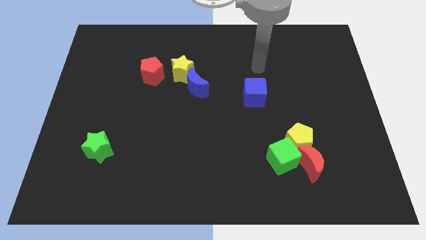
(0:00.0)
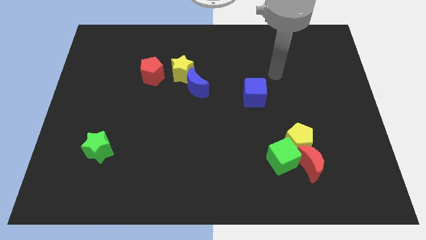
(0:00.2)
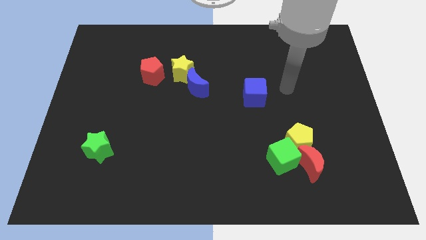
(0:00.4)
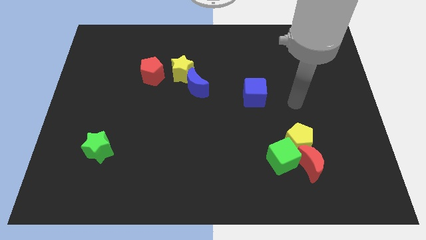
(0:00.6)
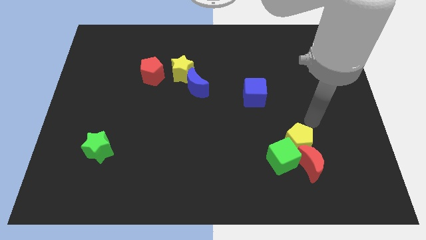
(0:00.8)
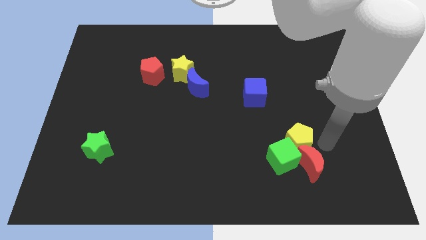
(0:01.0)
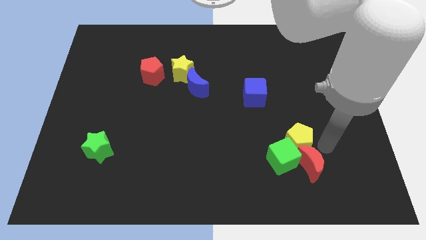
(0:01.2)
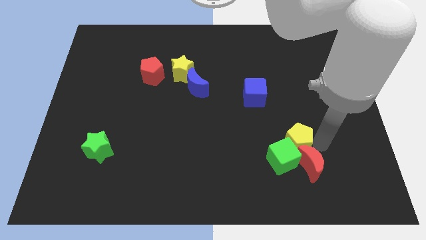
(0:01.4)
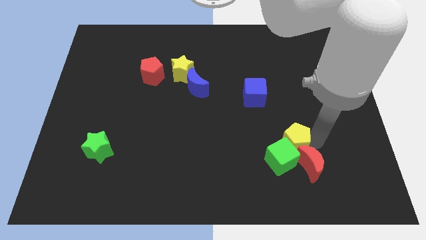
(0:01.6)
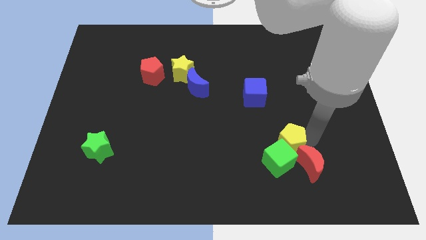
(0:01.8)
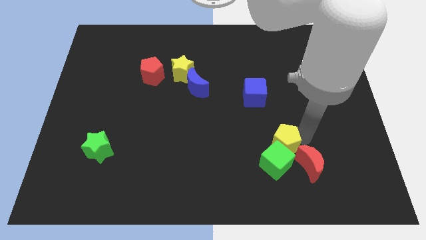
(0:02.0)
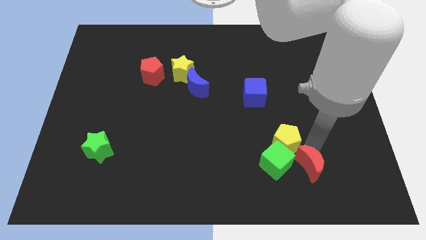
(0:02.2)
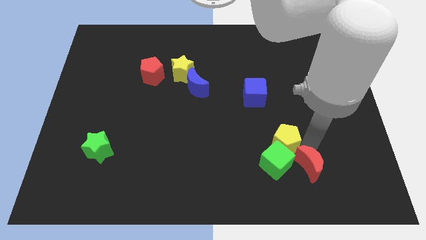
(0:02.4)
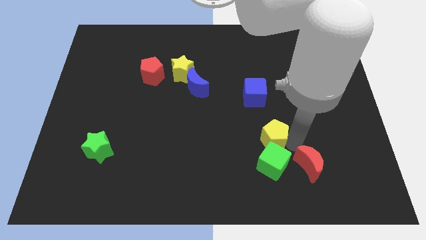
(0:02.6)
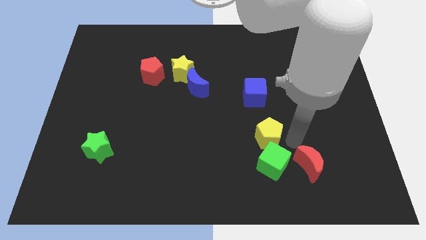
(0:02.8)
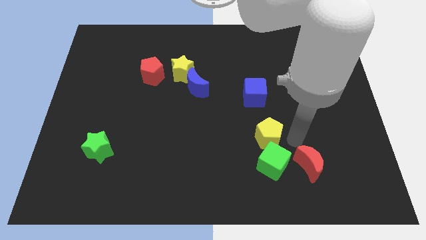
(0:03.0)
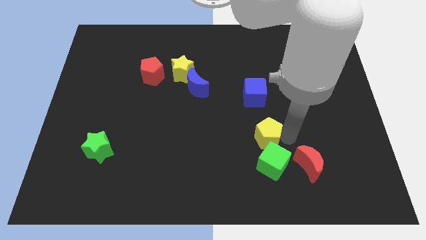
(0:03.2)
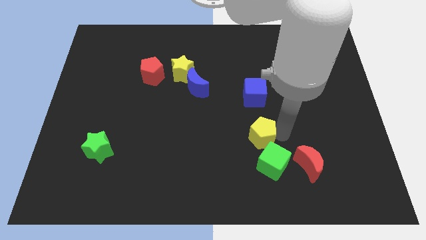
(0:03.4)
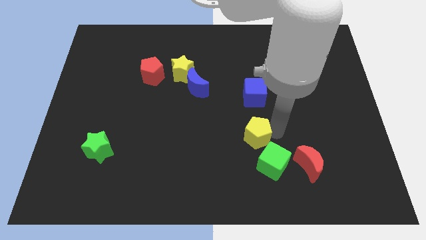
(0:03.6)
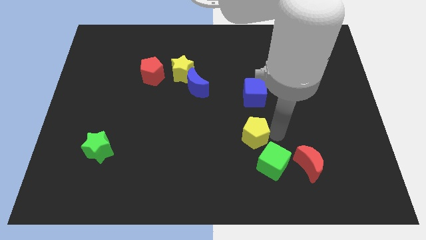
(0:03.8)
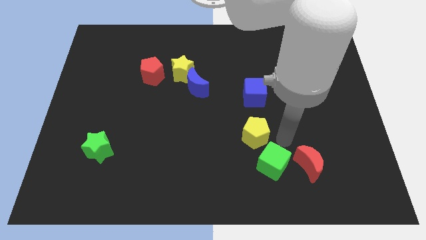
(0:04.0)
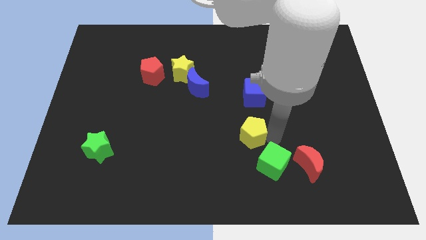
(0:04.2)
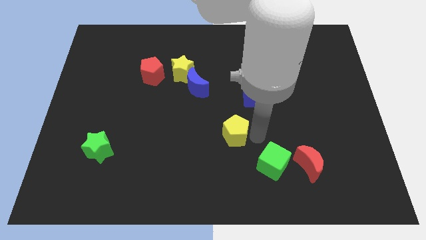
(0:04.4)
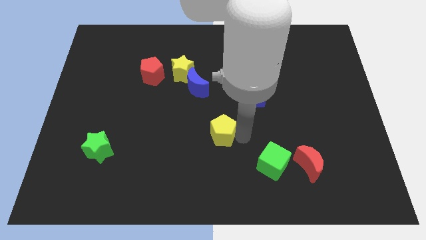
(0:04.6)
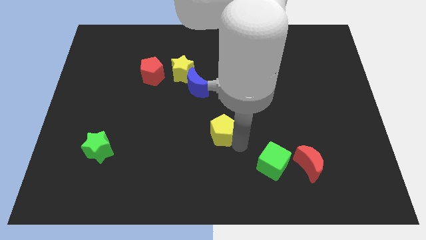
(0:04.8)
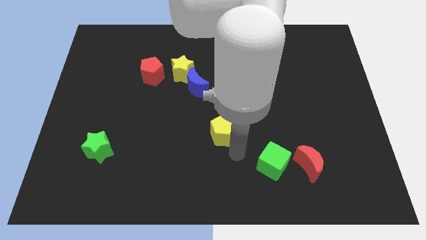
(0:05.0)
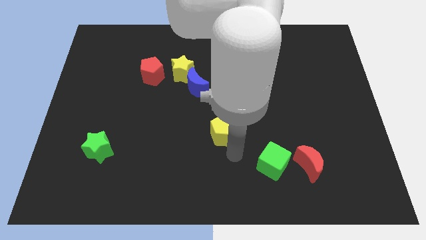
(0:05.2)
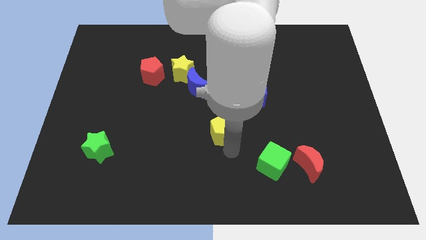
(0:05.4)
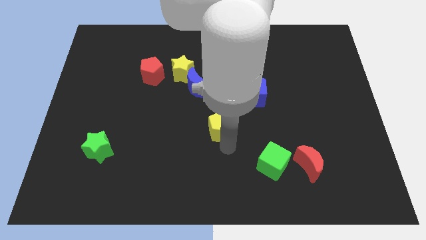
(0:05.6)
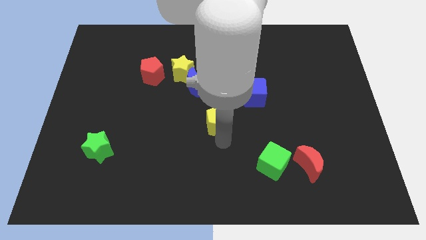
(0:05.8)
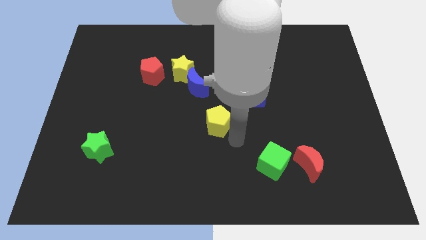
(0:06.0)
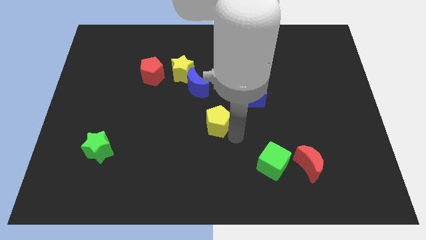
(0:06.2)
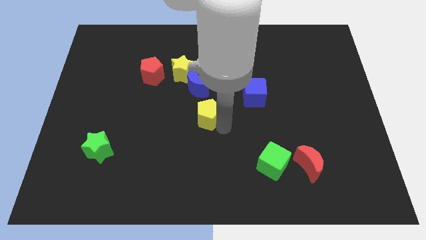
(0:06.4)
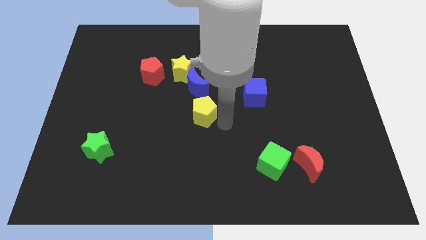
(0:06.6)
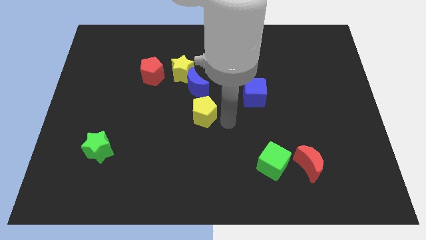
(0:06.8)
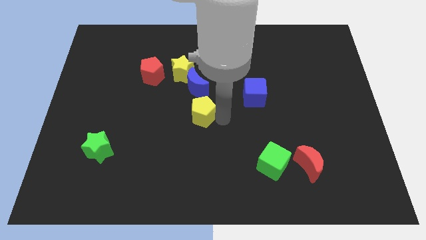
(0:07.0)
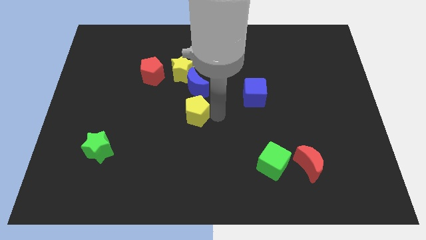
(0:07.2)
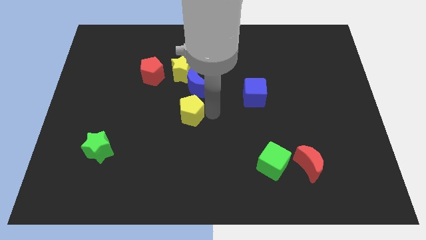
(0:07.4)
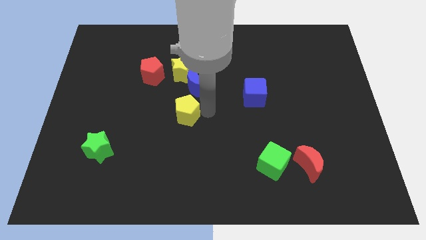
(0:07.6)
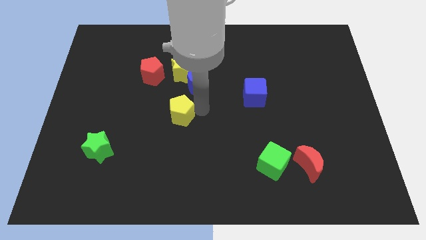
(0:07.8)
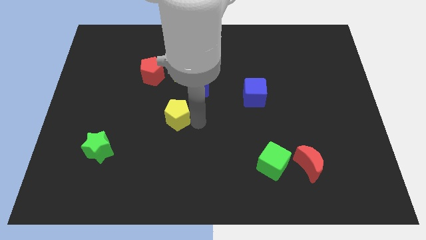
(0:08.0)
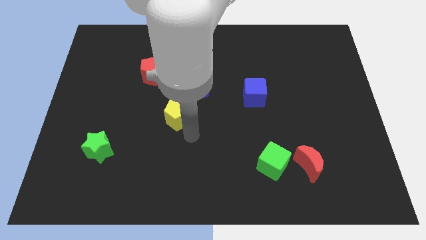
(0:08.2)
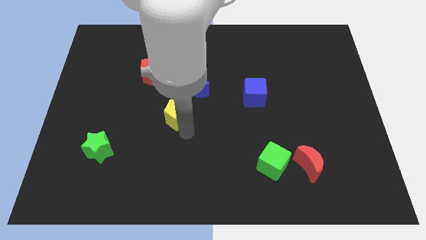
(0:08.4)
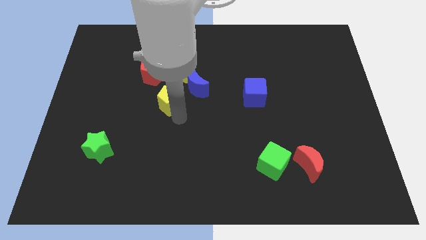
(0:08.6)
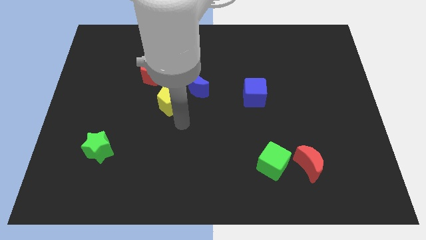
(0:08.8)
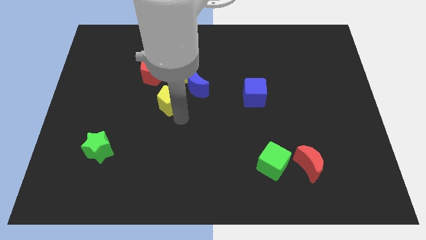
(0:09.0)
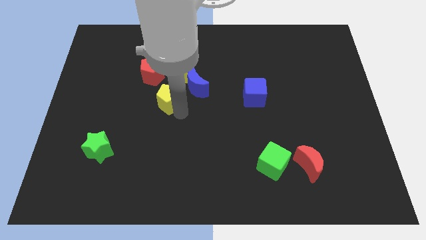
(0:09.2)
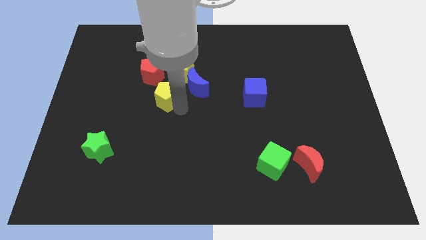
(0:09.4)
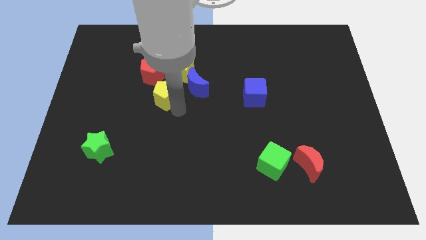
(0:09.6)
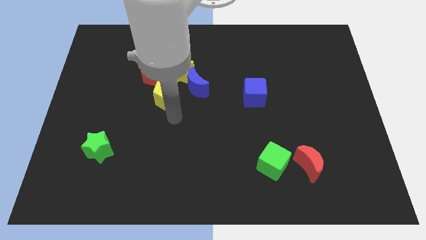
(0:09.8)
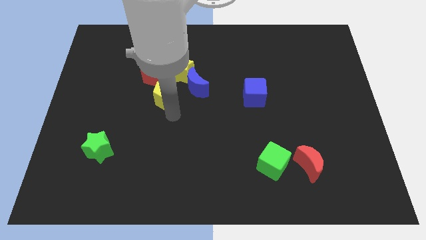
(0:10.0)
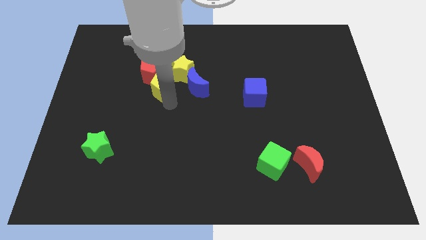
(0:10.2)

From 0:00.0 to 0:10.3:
slide the yellow pentagon close to the red pentagon

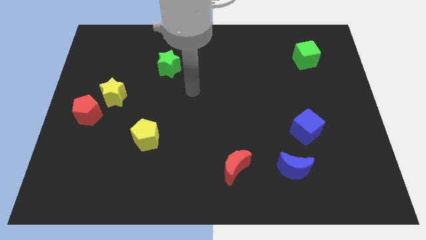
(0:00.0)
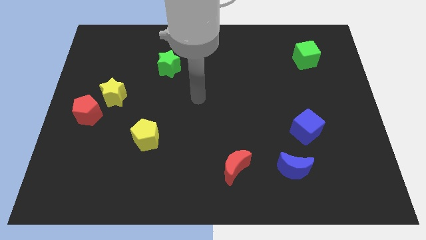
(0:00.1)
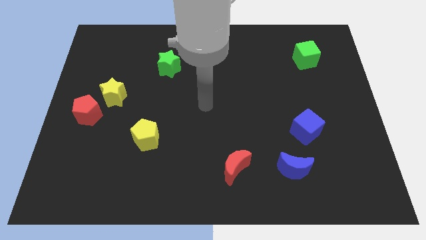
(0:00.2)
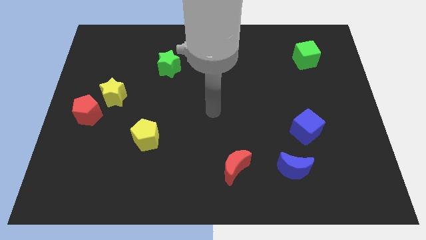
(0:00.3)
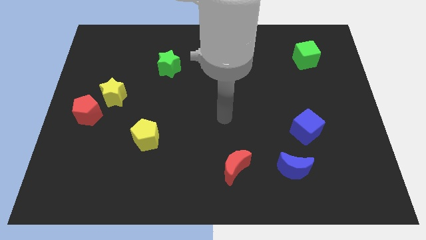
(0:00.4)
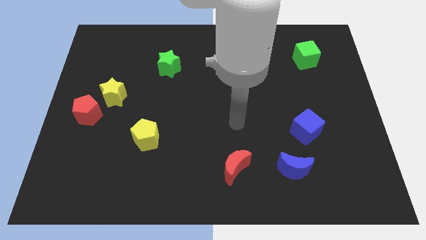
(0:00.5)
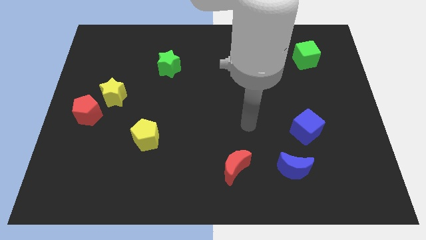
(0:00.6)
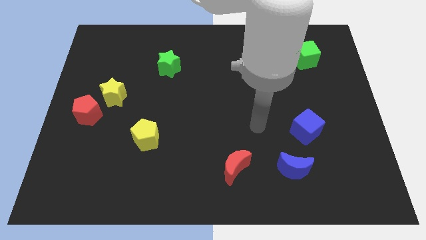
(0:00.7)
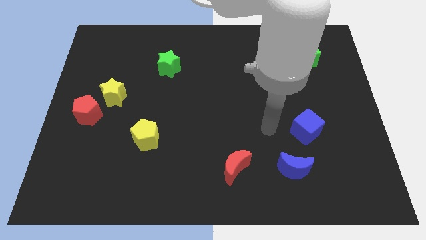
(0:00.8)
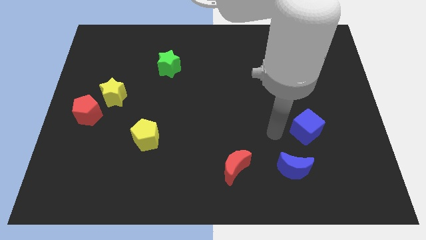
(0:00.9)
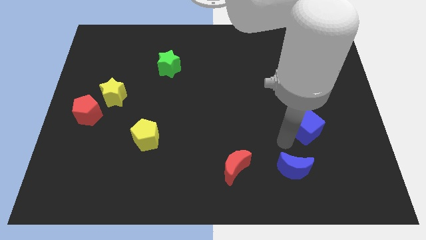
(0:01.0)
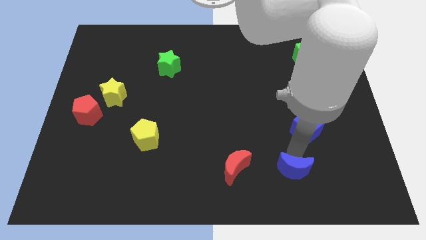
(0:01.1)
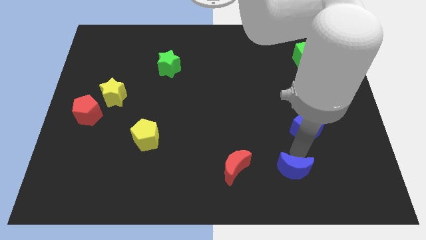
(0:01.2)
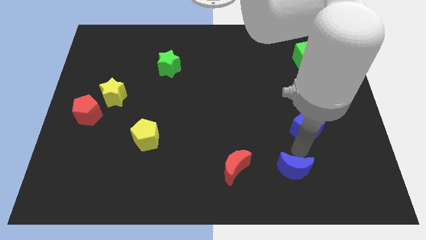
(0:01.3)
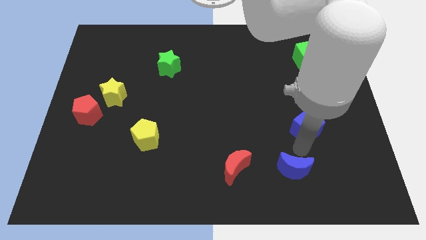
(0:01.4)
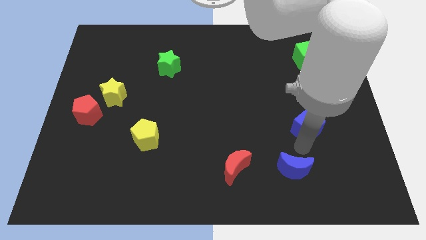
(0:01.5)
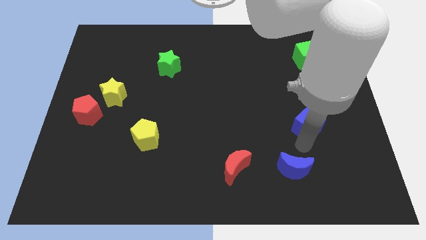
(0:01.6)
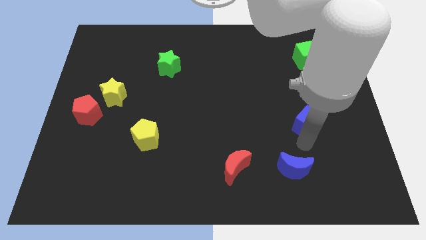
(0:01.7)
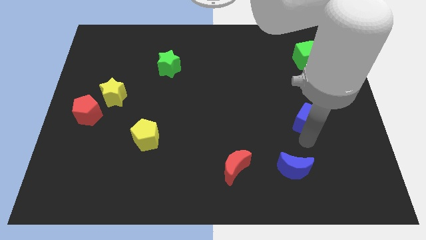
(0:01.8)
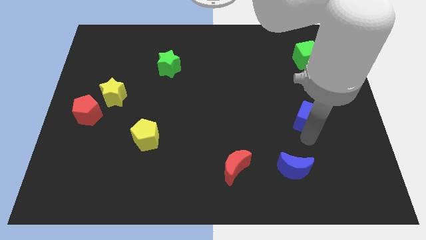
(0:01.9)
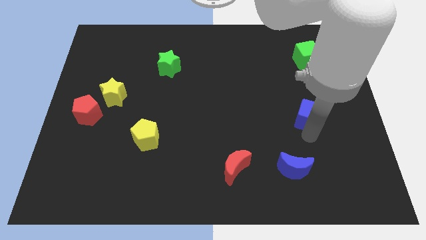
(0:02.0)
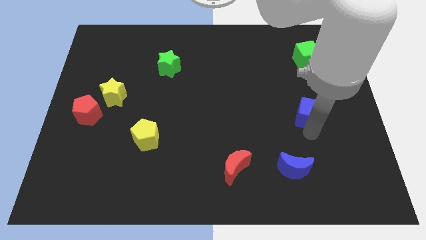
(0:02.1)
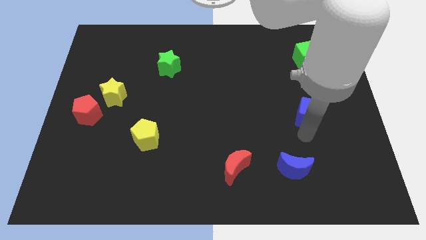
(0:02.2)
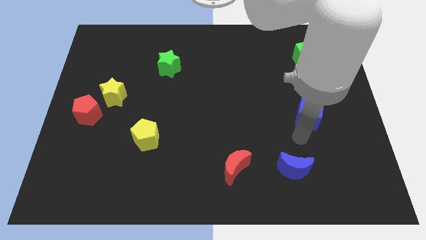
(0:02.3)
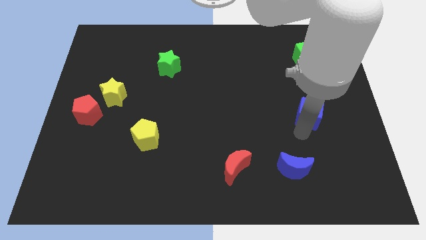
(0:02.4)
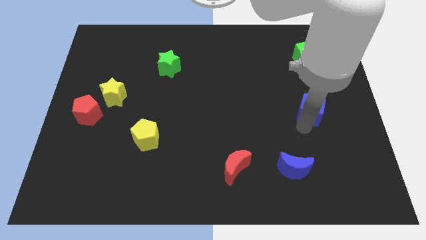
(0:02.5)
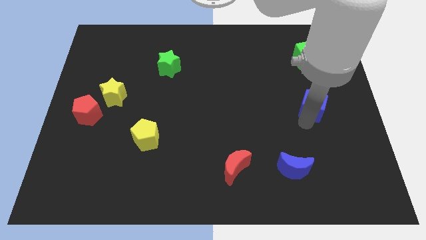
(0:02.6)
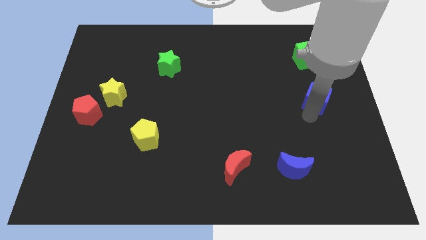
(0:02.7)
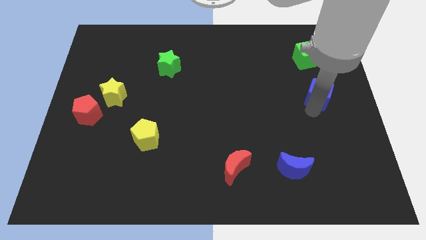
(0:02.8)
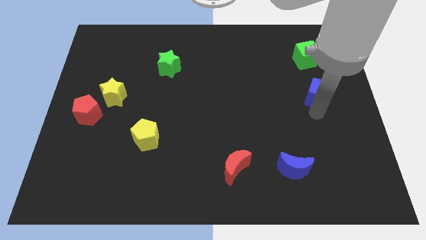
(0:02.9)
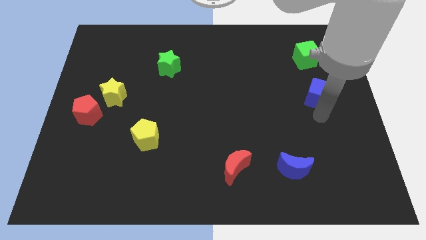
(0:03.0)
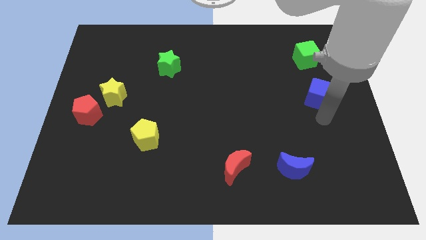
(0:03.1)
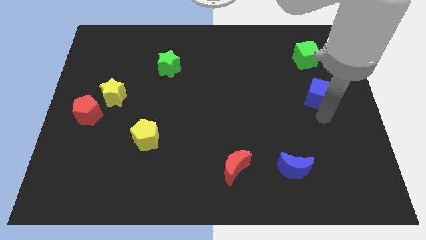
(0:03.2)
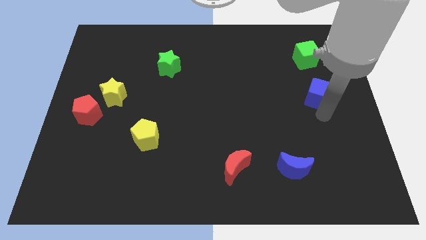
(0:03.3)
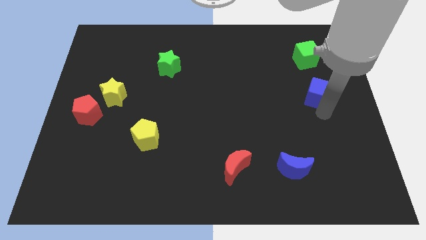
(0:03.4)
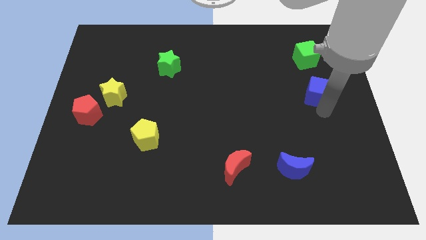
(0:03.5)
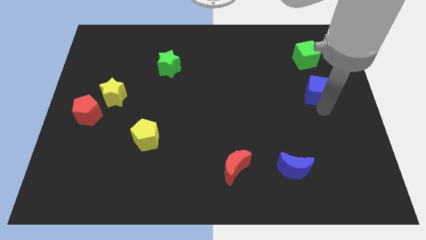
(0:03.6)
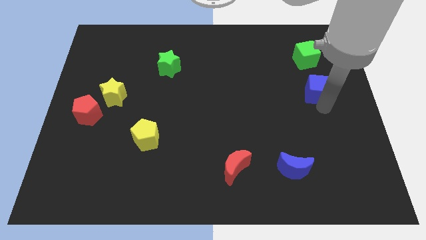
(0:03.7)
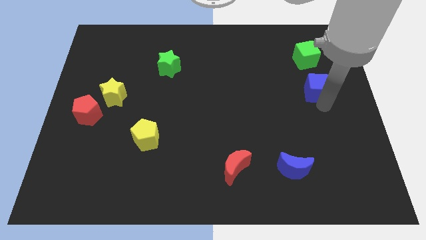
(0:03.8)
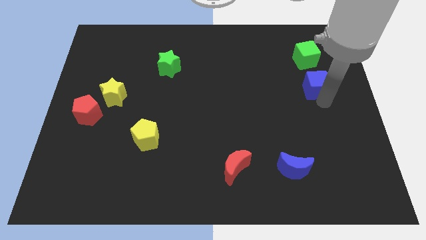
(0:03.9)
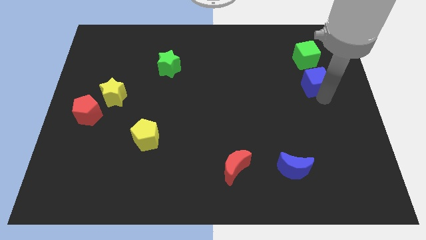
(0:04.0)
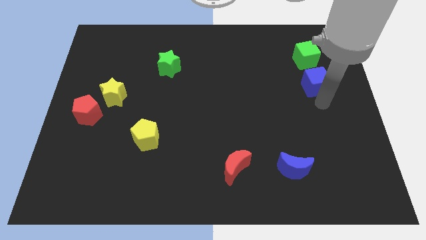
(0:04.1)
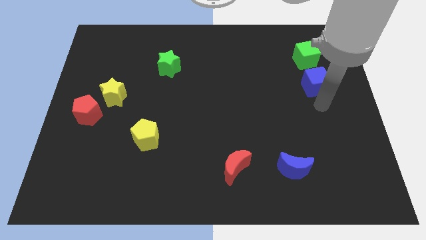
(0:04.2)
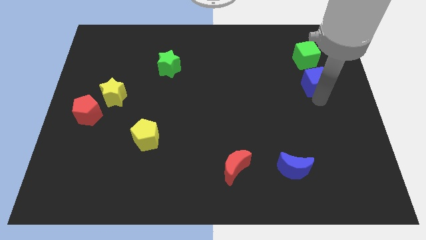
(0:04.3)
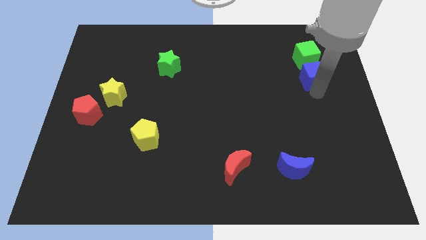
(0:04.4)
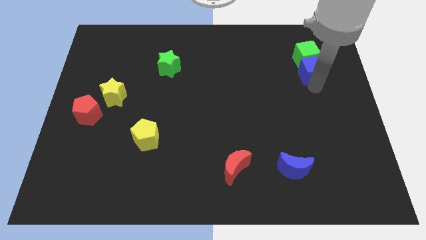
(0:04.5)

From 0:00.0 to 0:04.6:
move the blue cube next to the green cube
